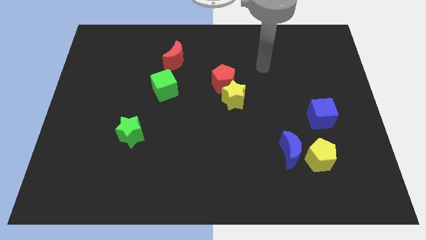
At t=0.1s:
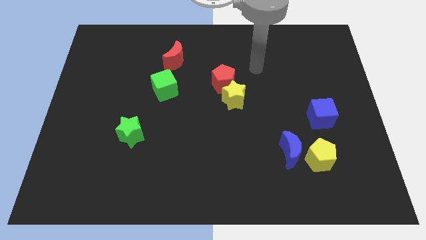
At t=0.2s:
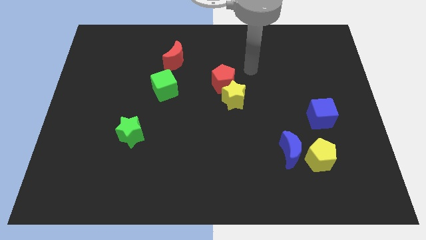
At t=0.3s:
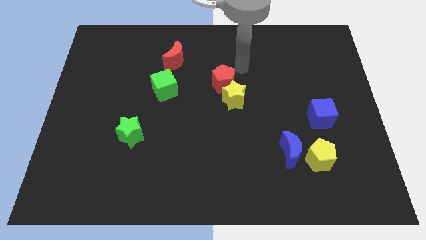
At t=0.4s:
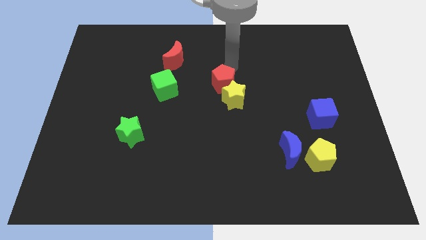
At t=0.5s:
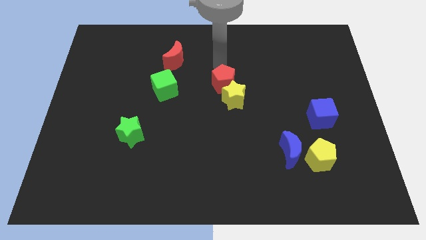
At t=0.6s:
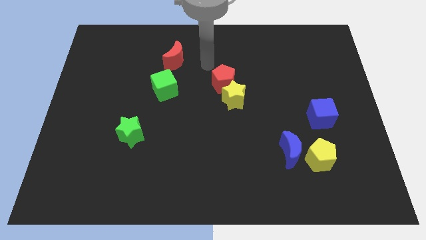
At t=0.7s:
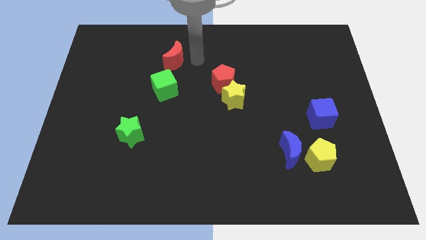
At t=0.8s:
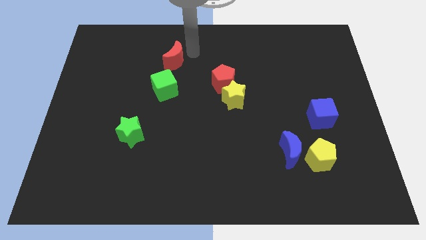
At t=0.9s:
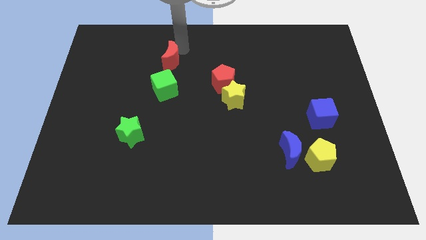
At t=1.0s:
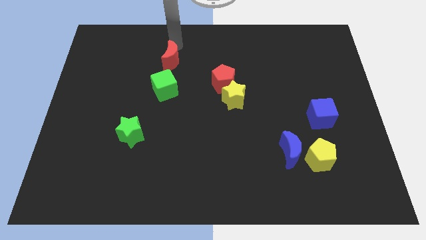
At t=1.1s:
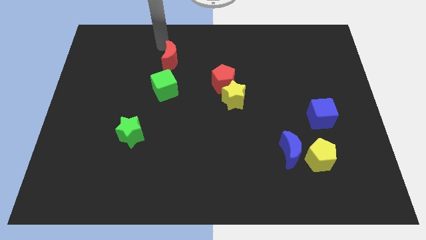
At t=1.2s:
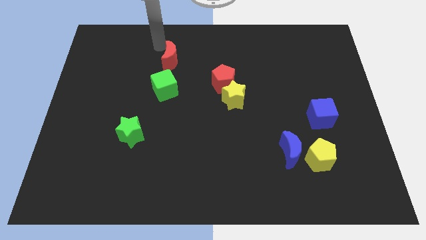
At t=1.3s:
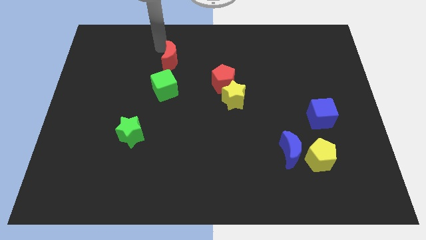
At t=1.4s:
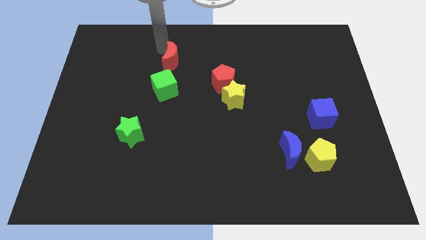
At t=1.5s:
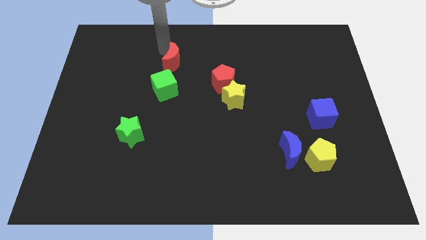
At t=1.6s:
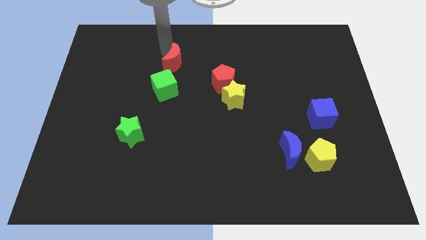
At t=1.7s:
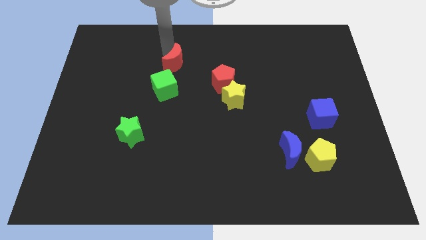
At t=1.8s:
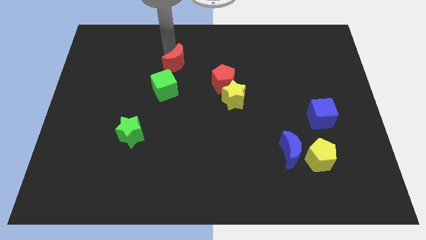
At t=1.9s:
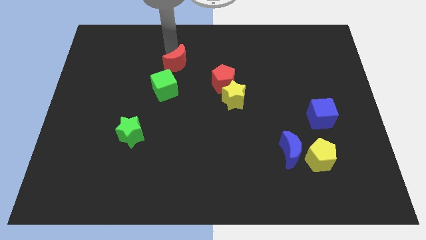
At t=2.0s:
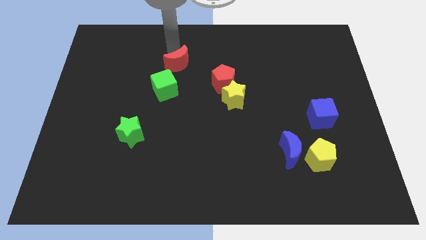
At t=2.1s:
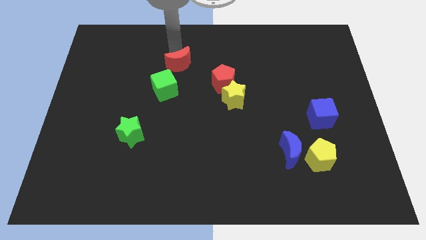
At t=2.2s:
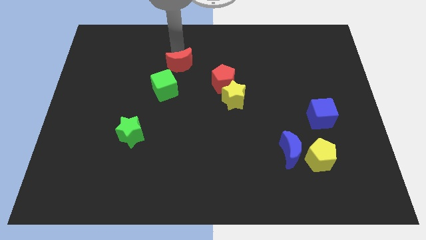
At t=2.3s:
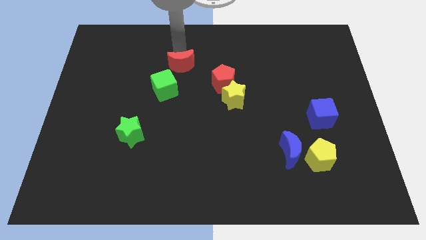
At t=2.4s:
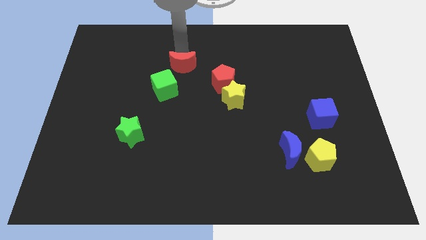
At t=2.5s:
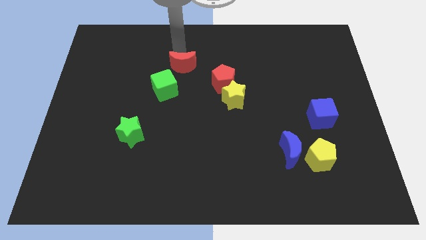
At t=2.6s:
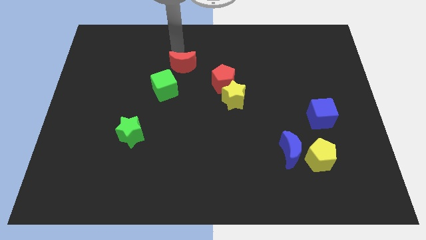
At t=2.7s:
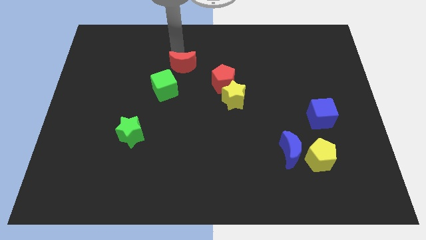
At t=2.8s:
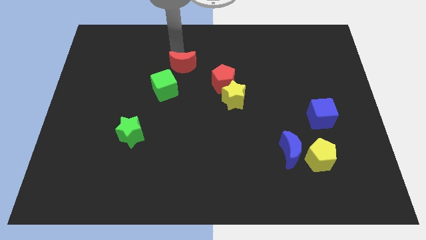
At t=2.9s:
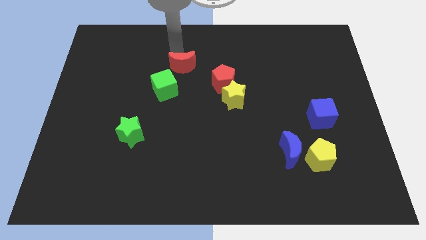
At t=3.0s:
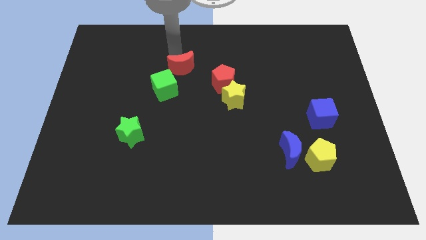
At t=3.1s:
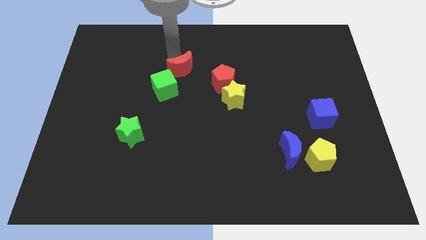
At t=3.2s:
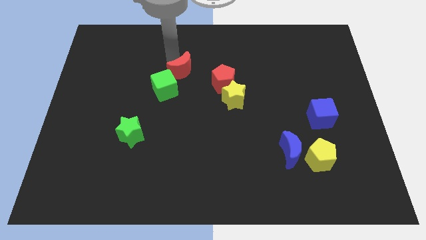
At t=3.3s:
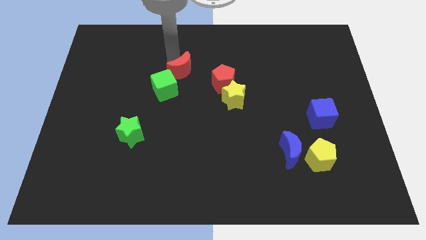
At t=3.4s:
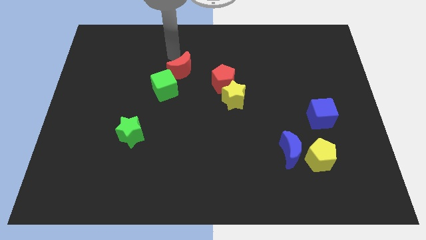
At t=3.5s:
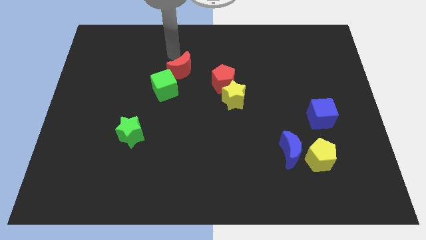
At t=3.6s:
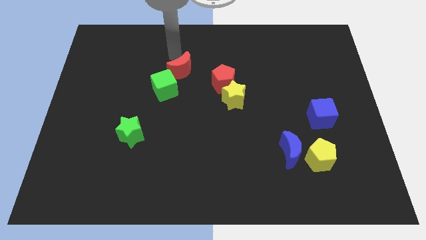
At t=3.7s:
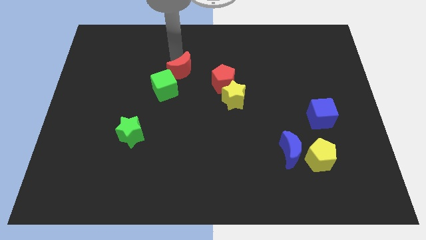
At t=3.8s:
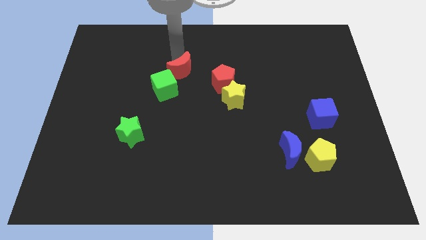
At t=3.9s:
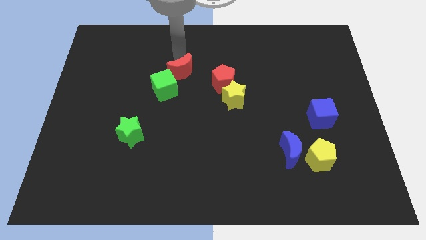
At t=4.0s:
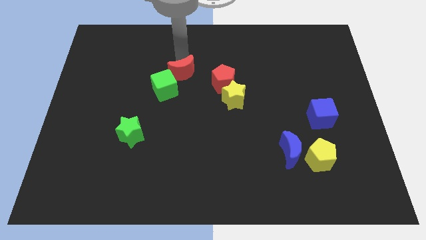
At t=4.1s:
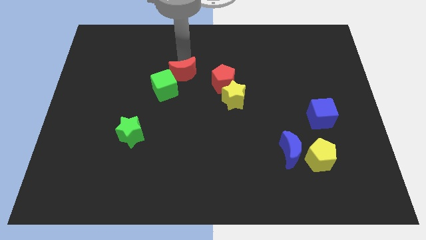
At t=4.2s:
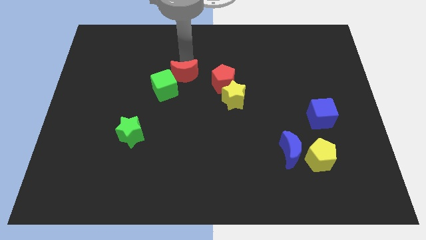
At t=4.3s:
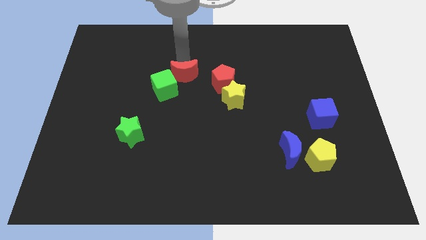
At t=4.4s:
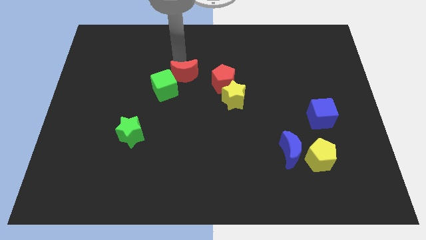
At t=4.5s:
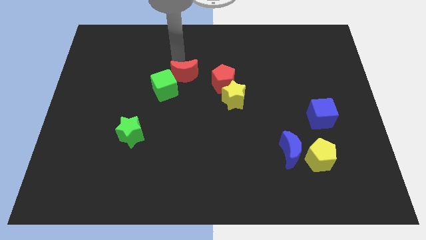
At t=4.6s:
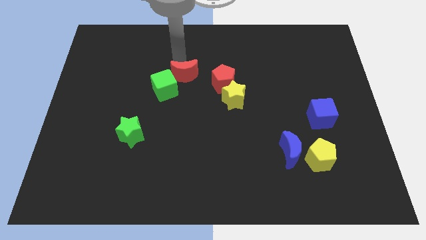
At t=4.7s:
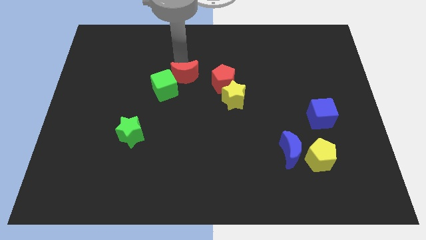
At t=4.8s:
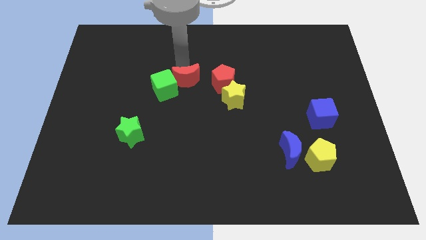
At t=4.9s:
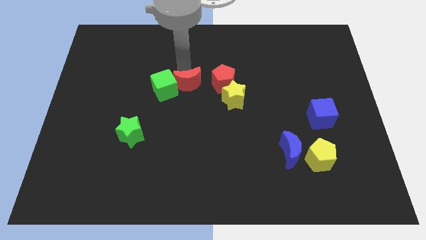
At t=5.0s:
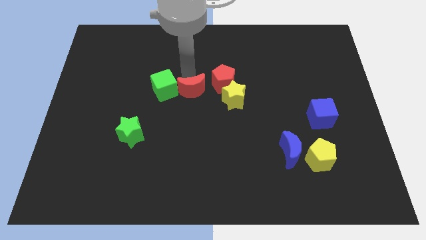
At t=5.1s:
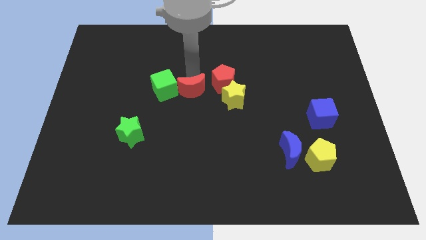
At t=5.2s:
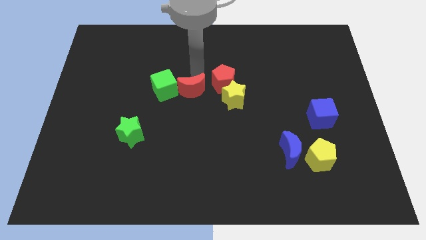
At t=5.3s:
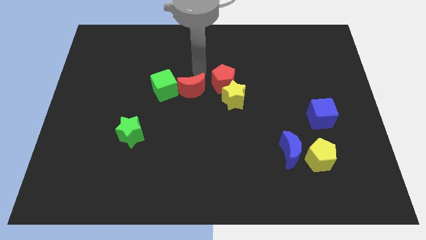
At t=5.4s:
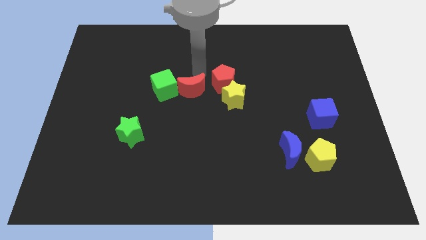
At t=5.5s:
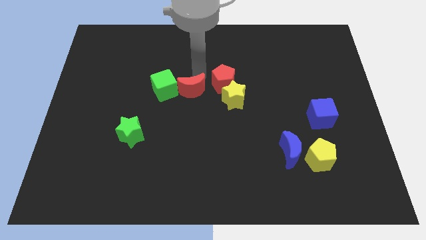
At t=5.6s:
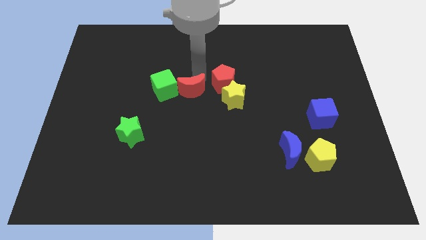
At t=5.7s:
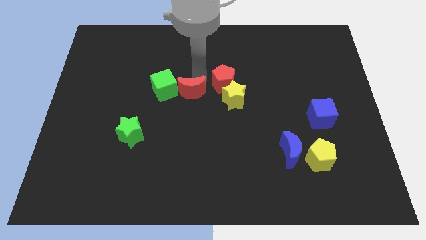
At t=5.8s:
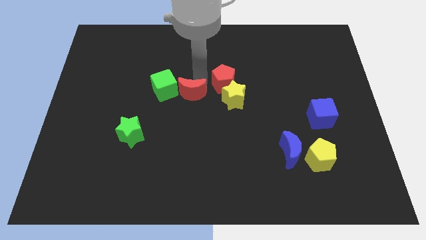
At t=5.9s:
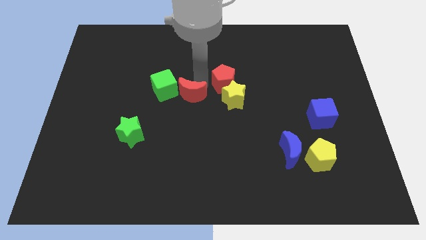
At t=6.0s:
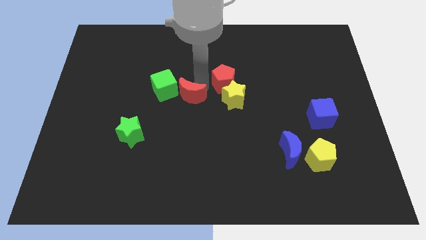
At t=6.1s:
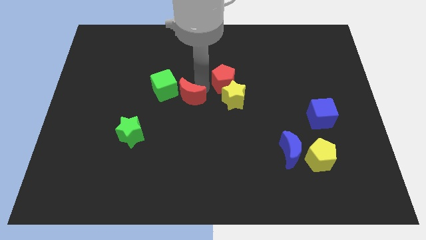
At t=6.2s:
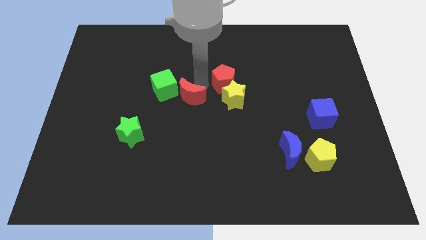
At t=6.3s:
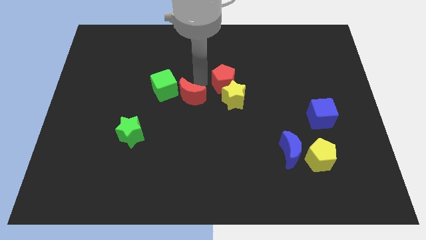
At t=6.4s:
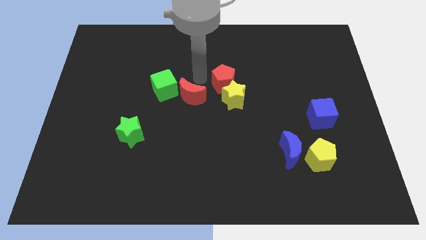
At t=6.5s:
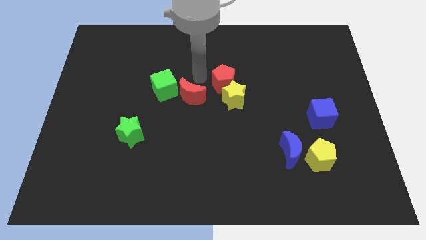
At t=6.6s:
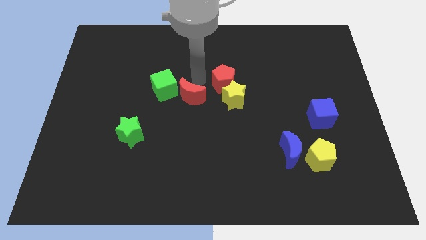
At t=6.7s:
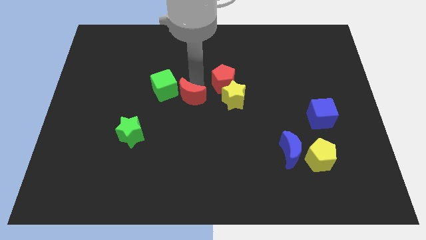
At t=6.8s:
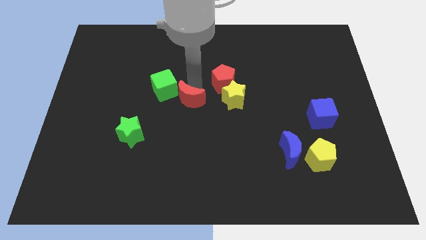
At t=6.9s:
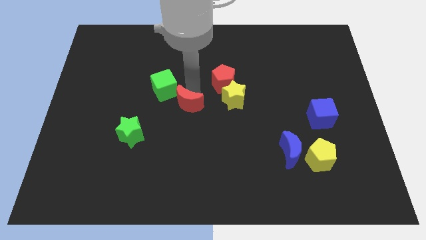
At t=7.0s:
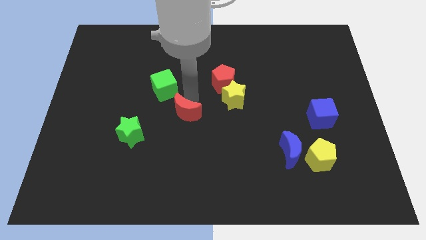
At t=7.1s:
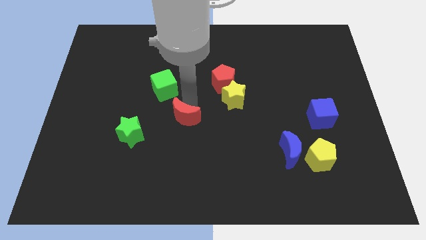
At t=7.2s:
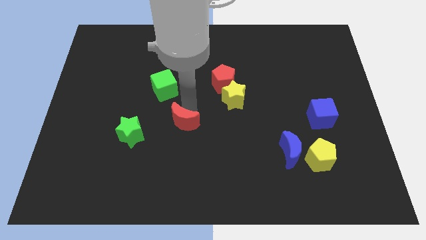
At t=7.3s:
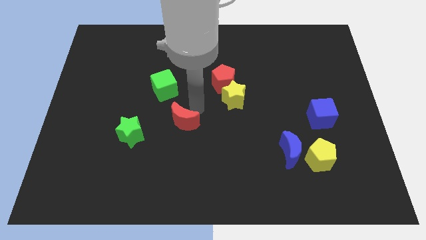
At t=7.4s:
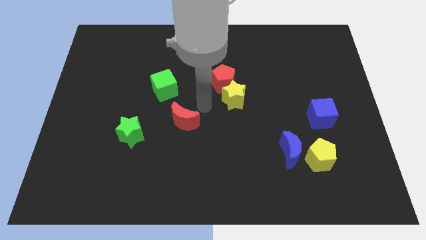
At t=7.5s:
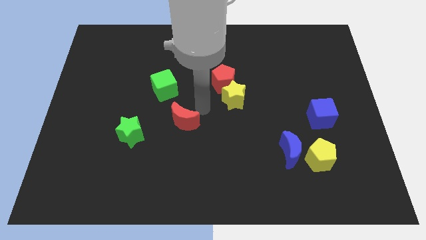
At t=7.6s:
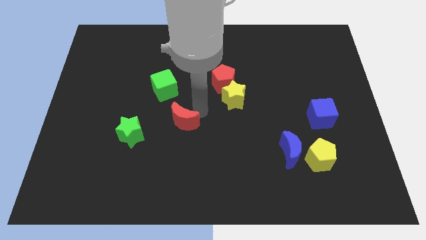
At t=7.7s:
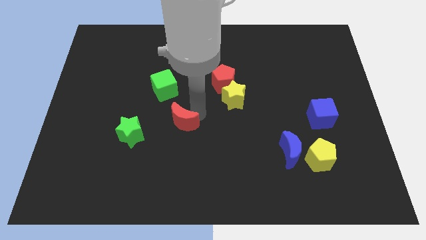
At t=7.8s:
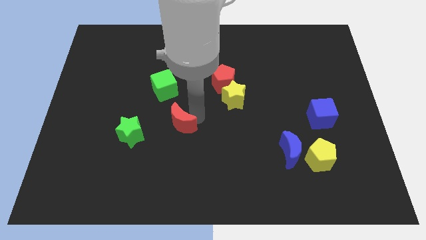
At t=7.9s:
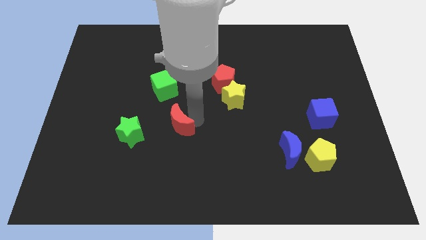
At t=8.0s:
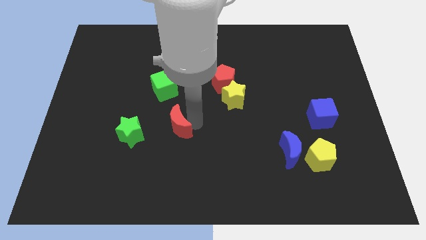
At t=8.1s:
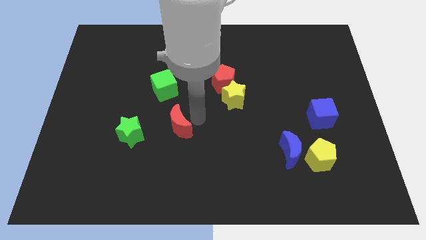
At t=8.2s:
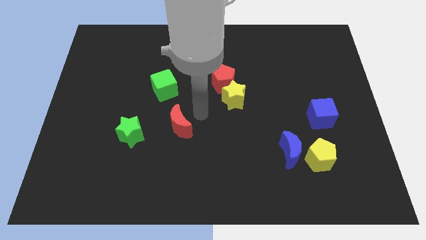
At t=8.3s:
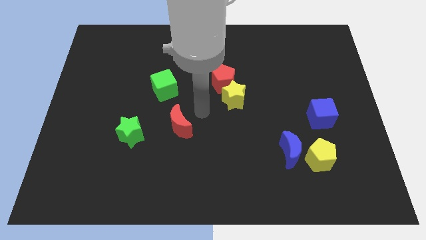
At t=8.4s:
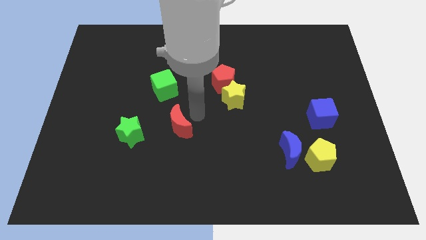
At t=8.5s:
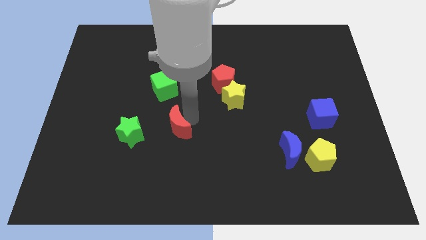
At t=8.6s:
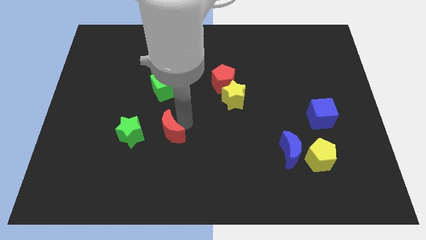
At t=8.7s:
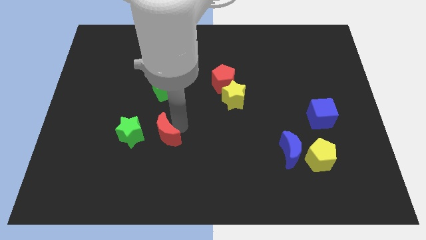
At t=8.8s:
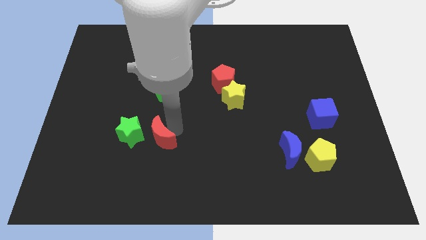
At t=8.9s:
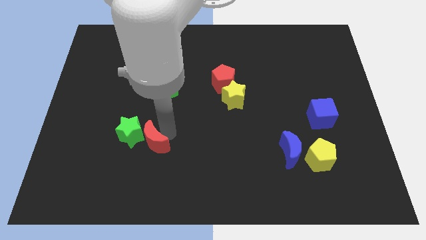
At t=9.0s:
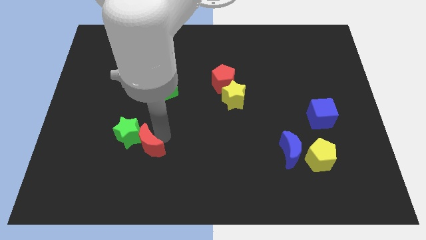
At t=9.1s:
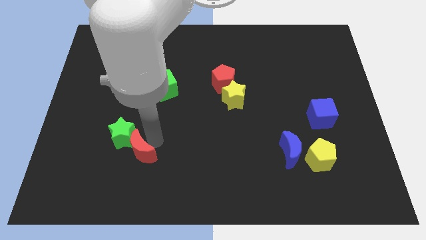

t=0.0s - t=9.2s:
slide the red moon to the bottom of the green star
